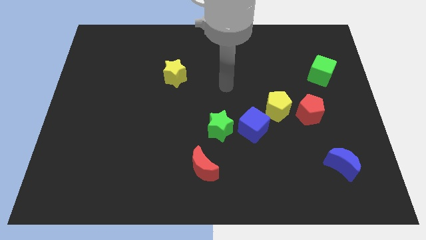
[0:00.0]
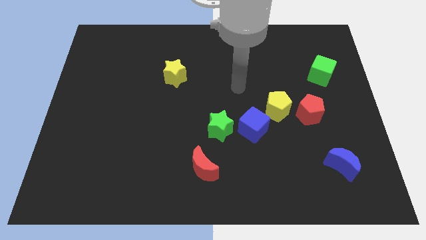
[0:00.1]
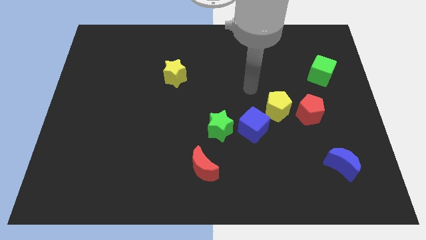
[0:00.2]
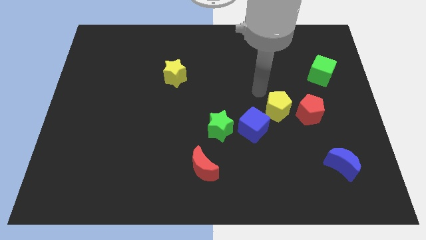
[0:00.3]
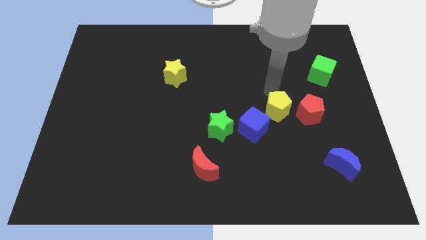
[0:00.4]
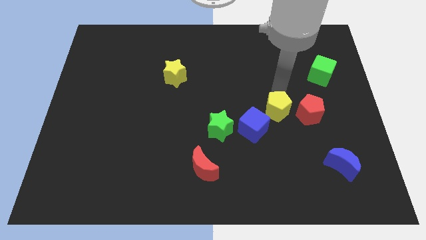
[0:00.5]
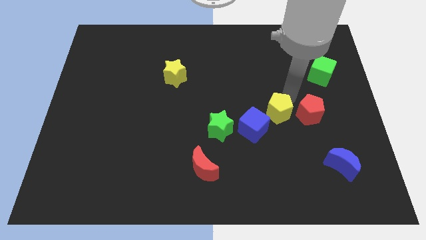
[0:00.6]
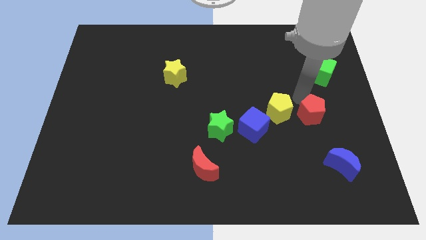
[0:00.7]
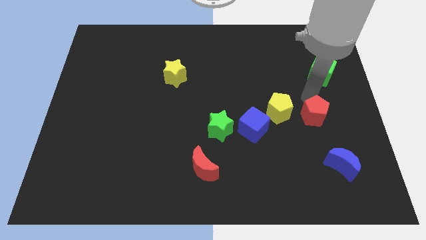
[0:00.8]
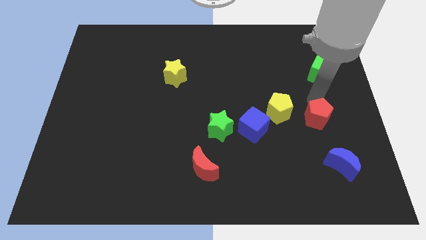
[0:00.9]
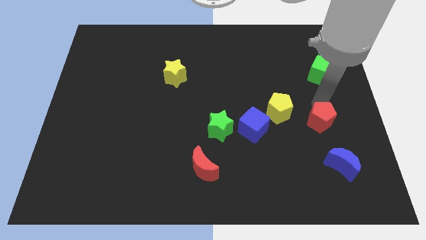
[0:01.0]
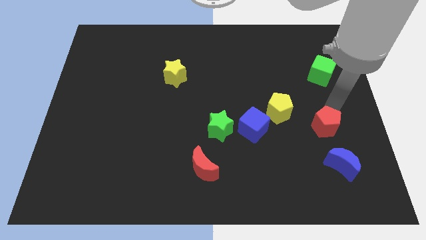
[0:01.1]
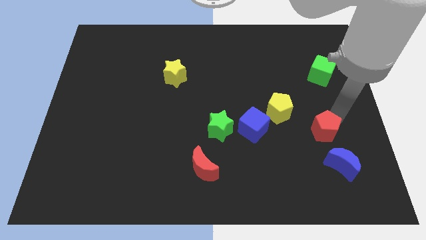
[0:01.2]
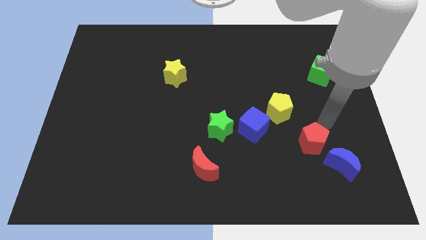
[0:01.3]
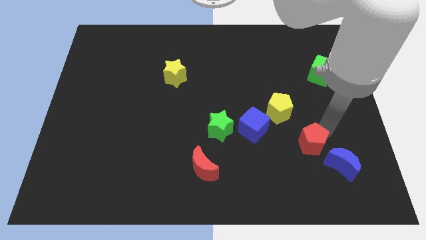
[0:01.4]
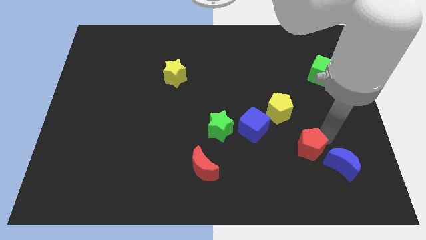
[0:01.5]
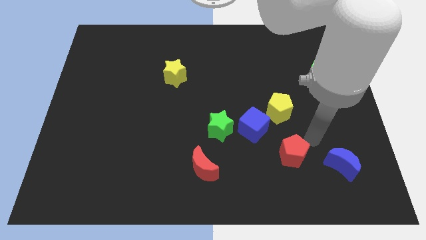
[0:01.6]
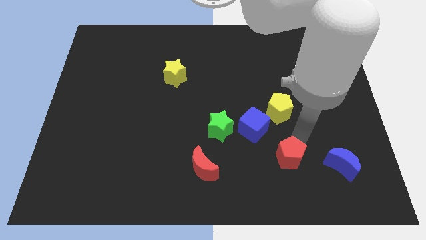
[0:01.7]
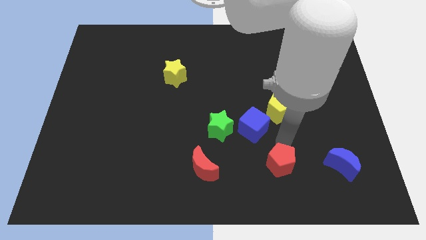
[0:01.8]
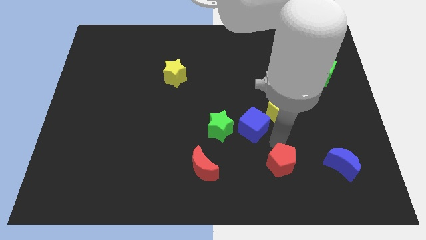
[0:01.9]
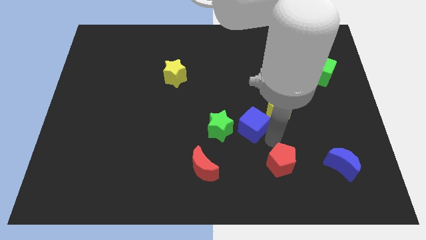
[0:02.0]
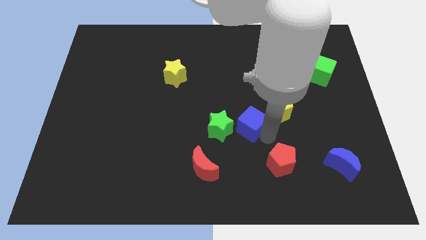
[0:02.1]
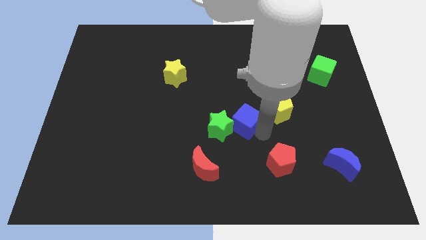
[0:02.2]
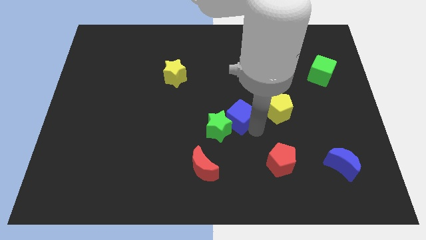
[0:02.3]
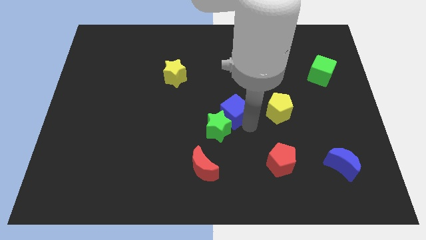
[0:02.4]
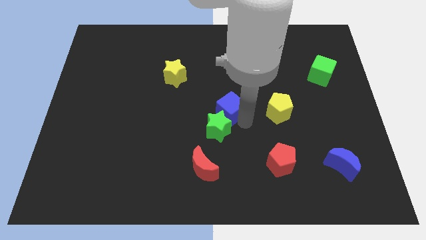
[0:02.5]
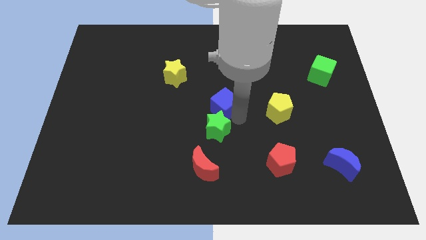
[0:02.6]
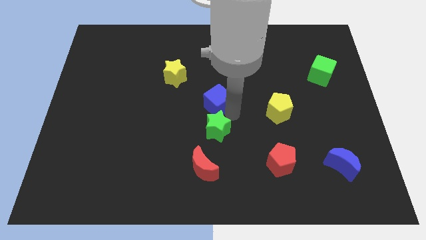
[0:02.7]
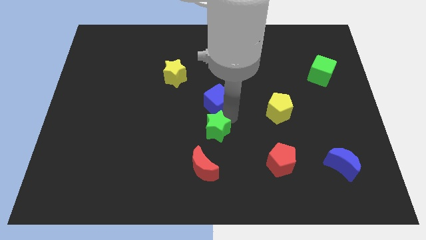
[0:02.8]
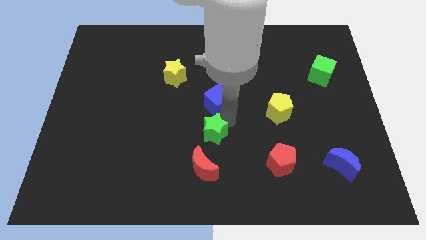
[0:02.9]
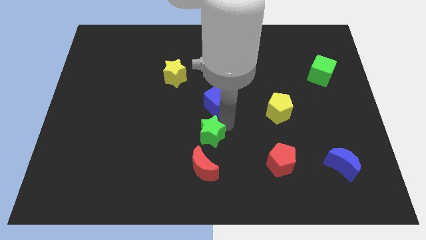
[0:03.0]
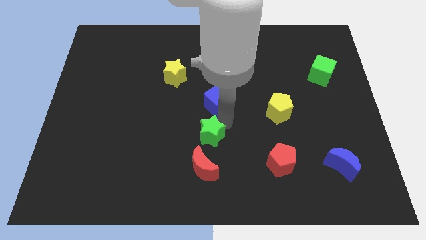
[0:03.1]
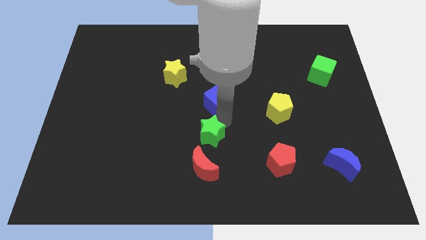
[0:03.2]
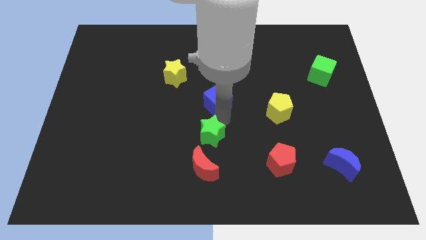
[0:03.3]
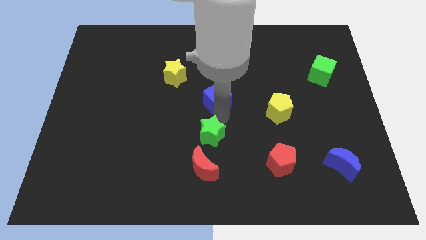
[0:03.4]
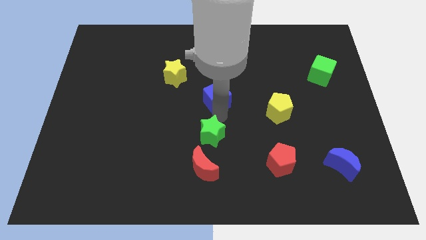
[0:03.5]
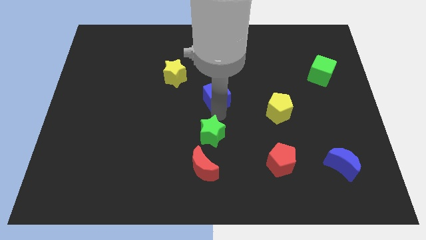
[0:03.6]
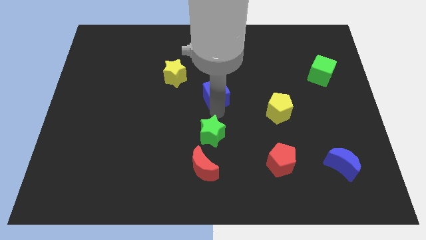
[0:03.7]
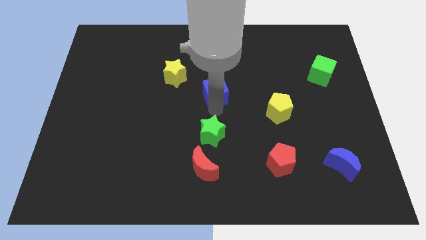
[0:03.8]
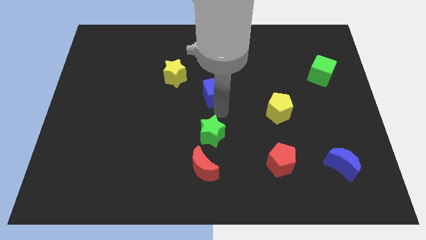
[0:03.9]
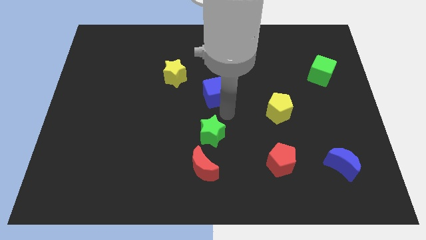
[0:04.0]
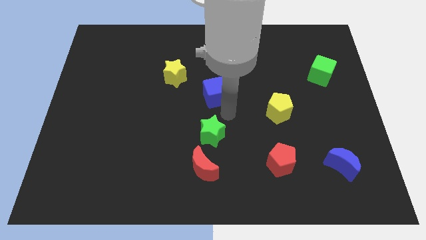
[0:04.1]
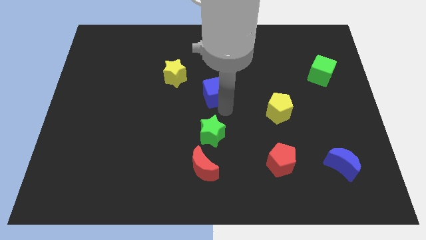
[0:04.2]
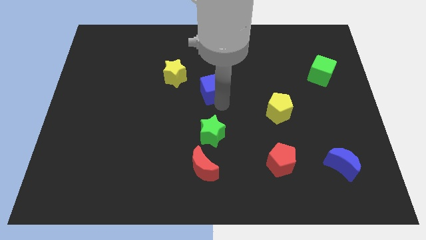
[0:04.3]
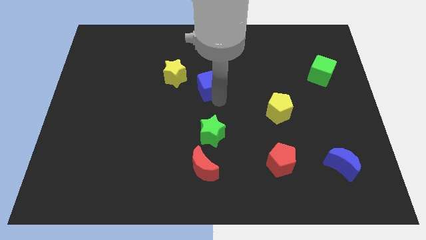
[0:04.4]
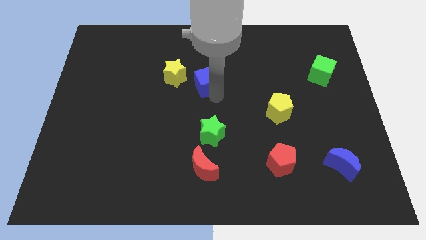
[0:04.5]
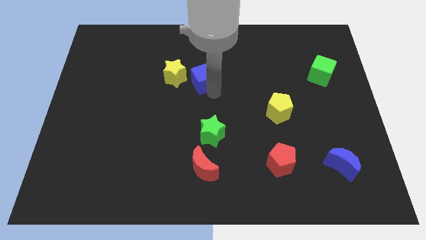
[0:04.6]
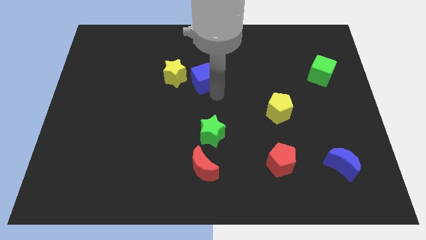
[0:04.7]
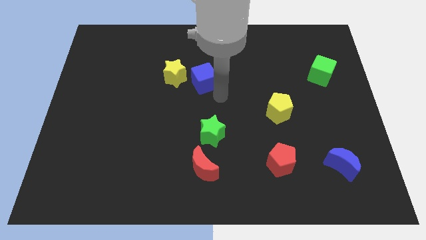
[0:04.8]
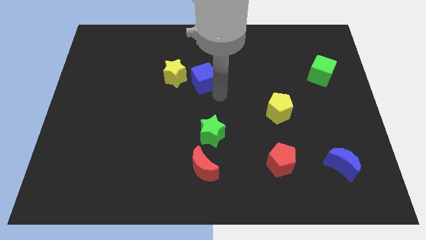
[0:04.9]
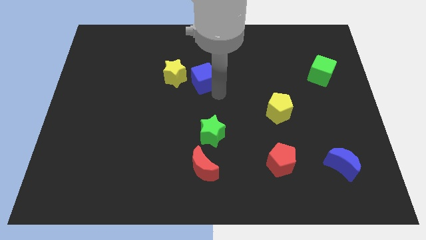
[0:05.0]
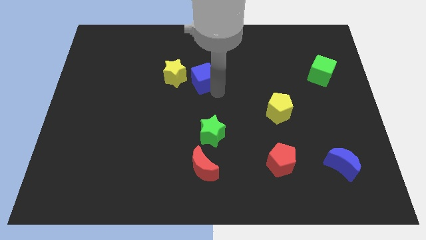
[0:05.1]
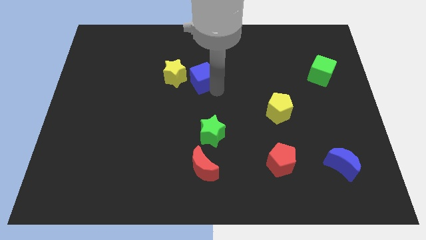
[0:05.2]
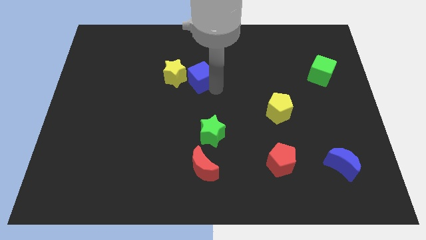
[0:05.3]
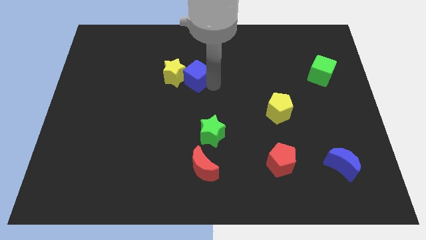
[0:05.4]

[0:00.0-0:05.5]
push the blue cube upwards and to the left

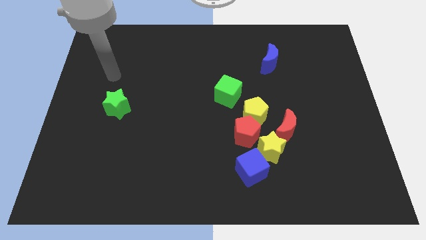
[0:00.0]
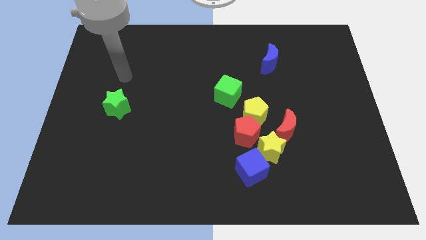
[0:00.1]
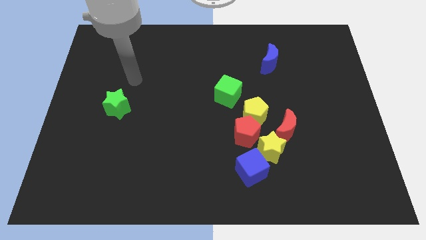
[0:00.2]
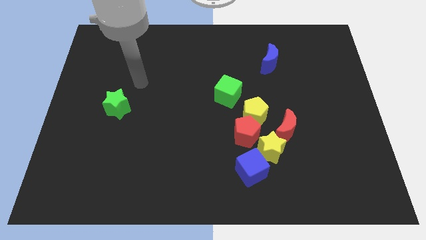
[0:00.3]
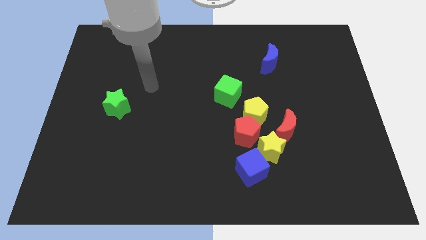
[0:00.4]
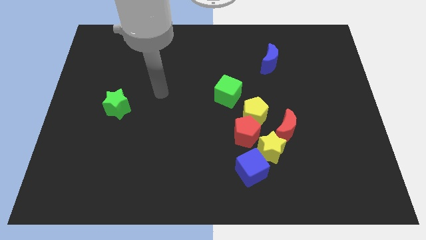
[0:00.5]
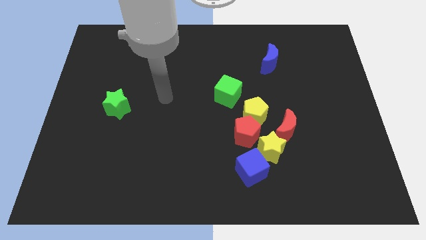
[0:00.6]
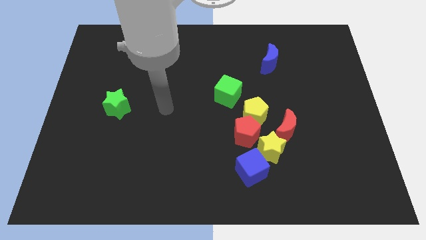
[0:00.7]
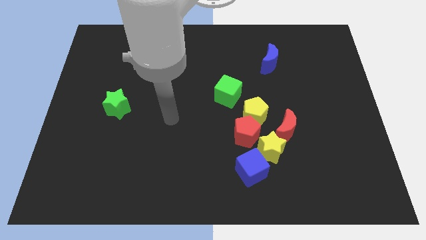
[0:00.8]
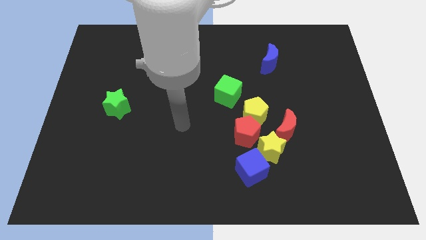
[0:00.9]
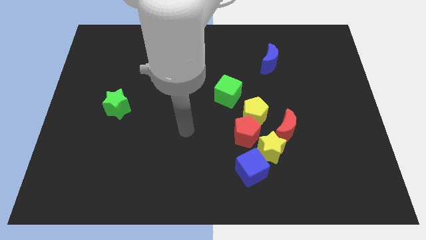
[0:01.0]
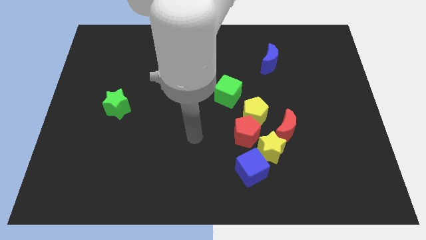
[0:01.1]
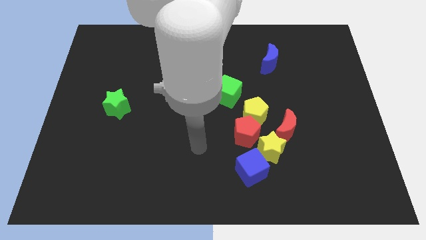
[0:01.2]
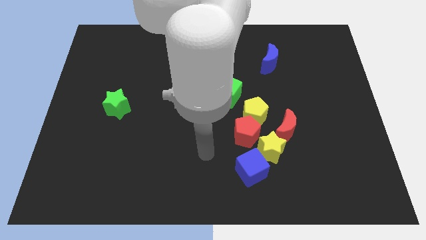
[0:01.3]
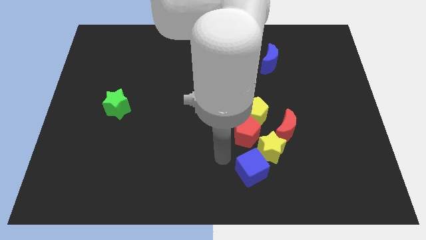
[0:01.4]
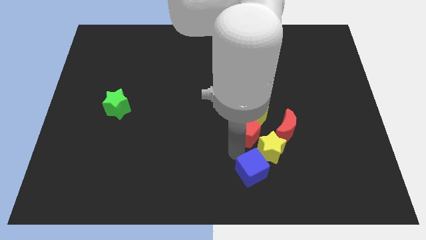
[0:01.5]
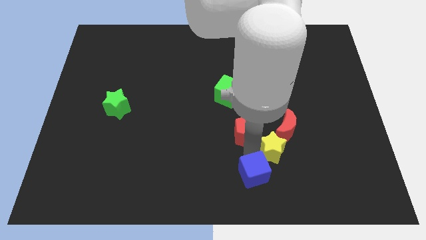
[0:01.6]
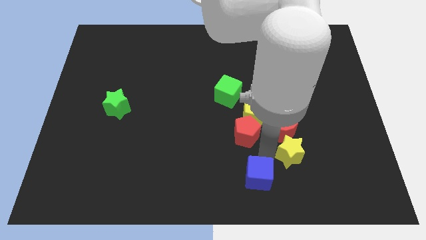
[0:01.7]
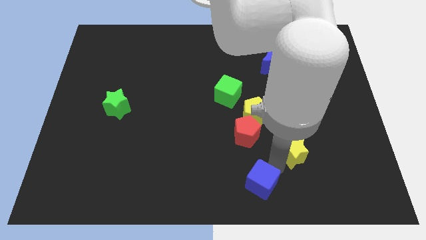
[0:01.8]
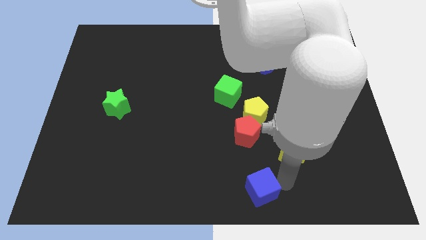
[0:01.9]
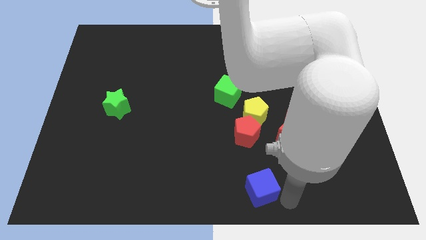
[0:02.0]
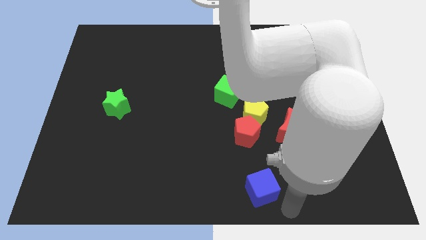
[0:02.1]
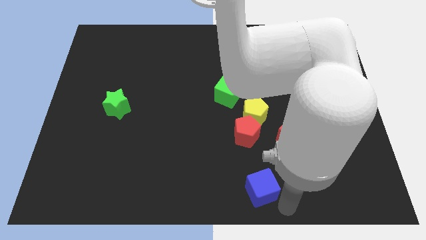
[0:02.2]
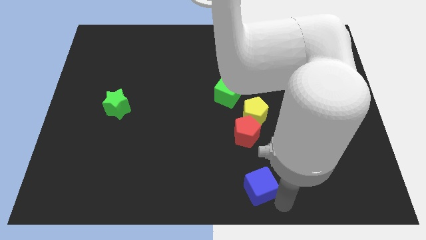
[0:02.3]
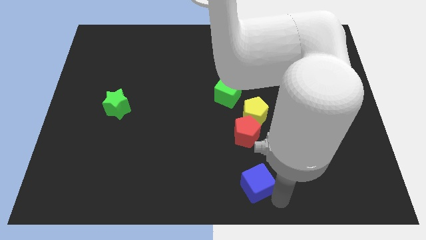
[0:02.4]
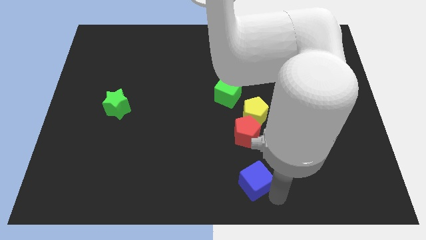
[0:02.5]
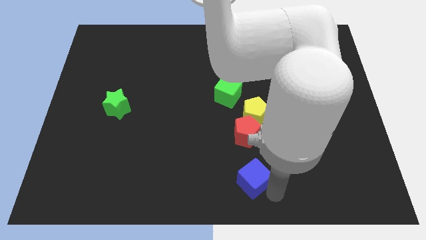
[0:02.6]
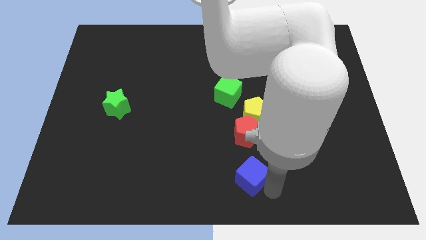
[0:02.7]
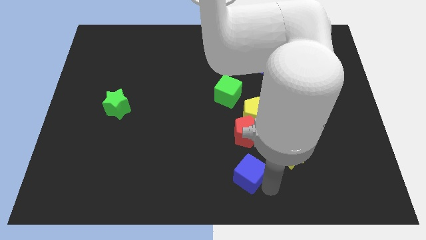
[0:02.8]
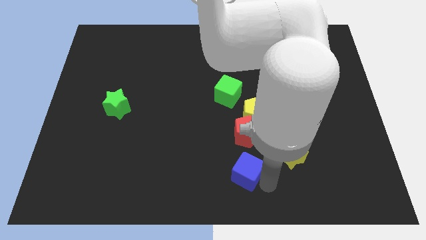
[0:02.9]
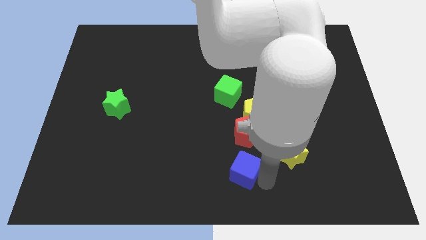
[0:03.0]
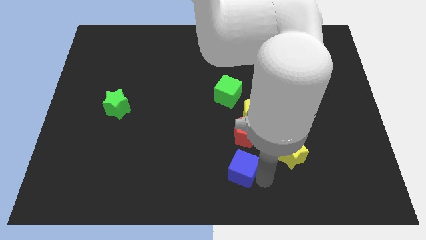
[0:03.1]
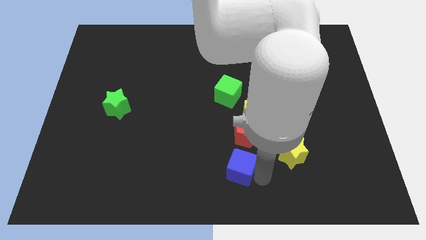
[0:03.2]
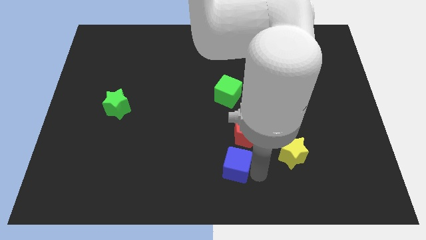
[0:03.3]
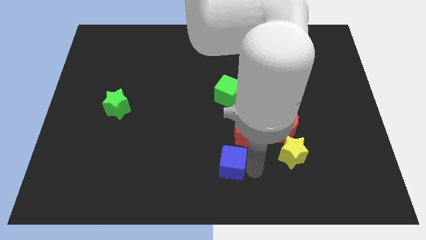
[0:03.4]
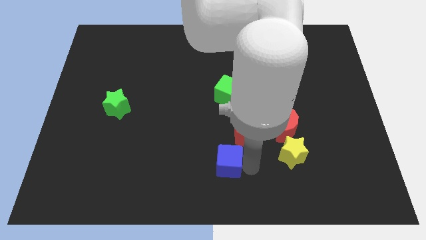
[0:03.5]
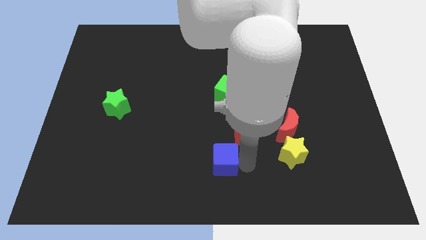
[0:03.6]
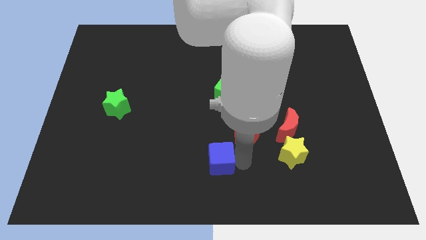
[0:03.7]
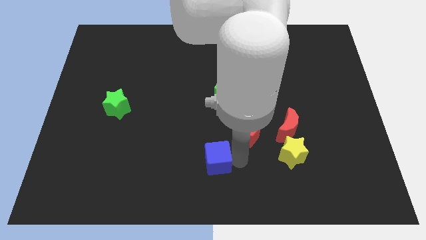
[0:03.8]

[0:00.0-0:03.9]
slide the blue cube a little to the left
